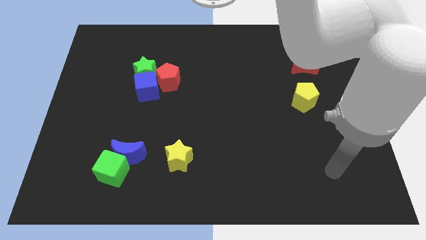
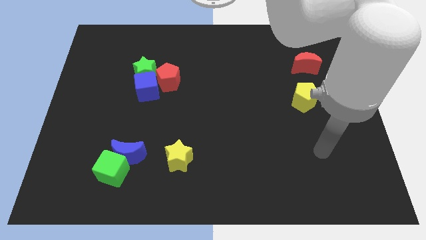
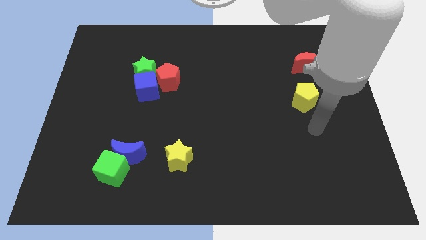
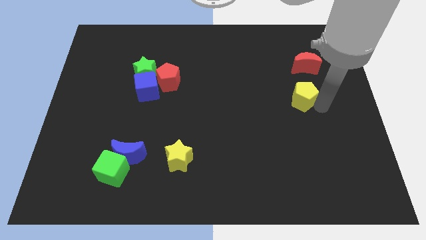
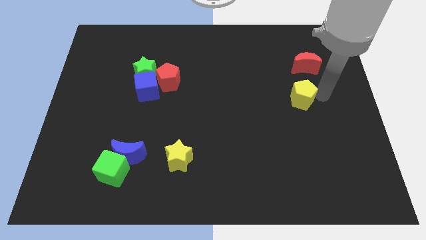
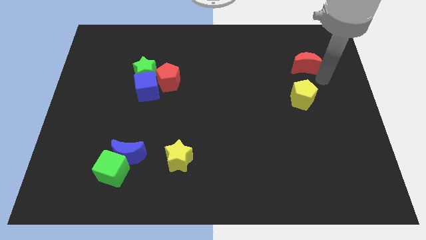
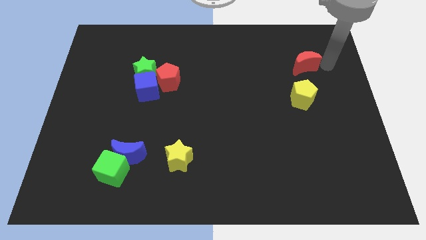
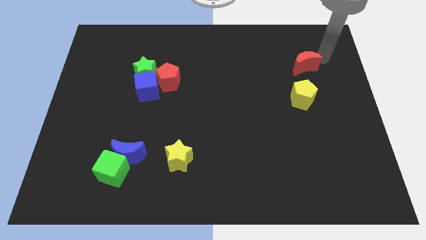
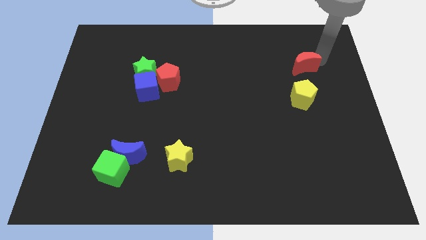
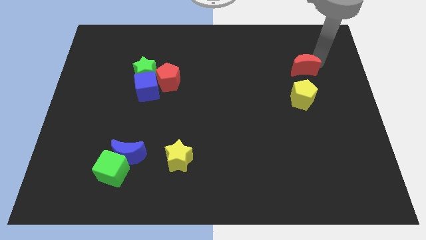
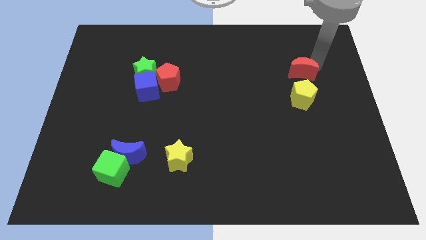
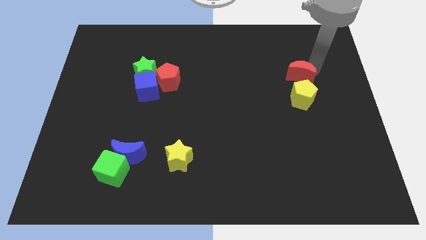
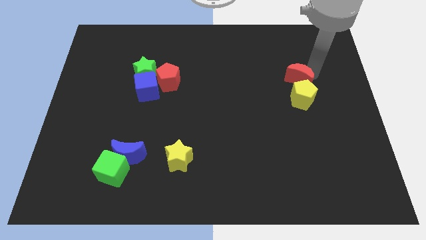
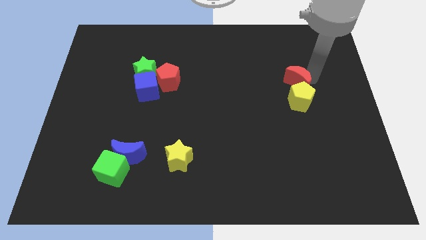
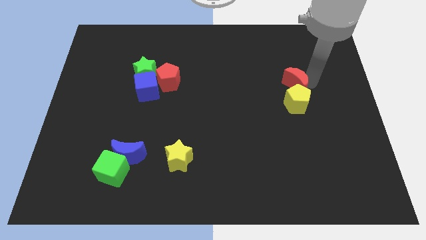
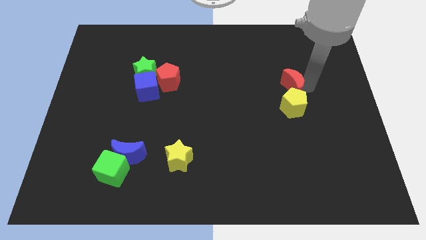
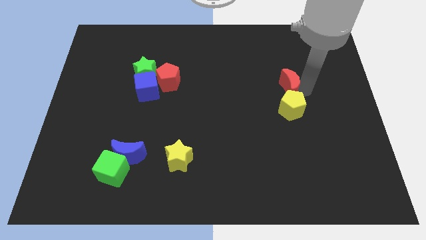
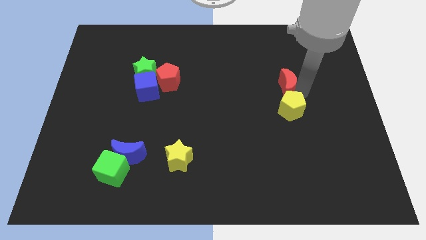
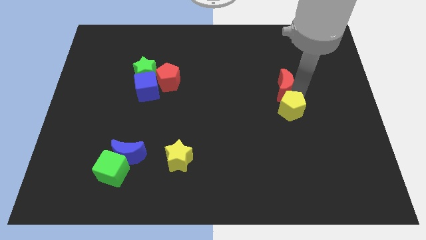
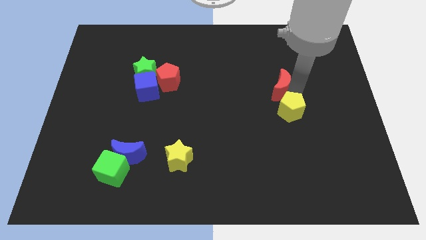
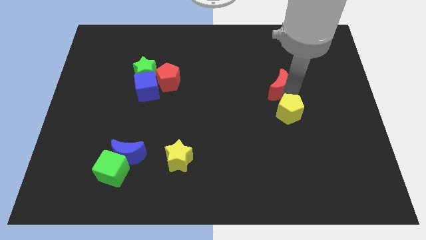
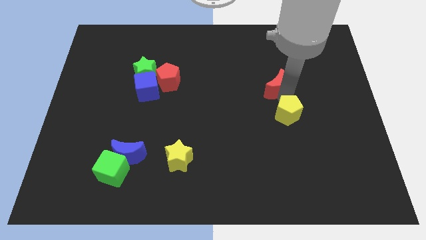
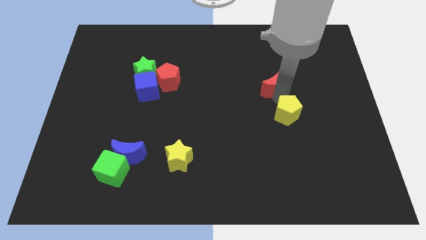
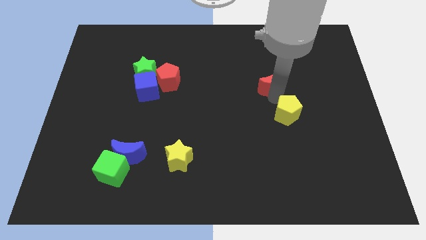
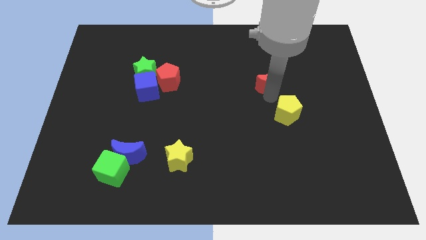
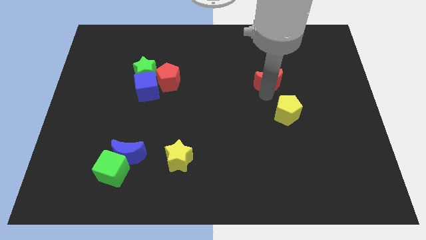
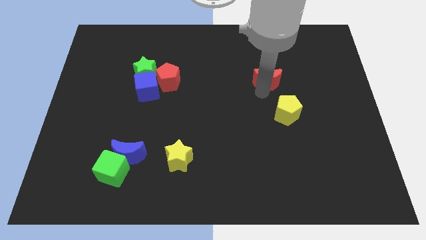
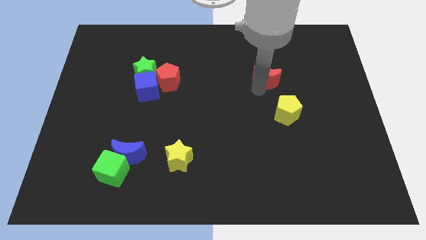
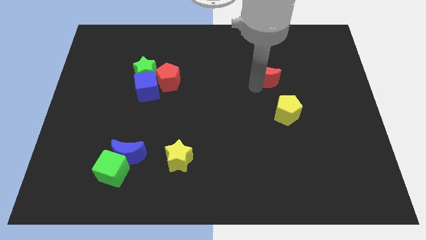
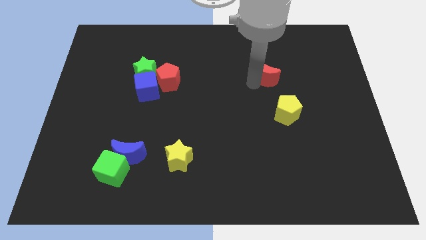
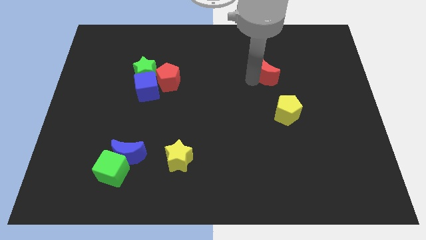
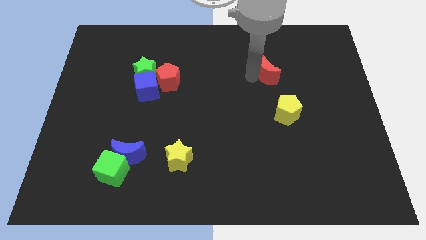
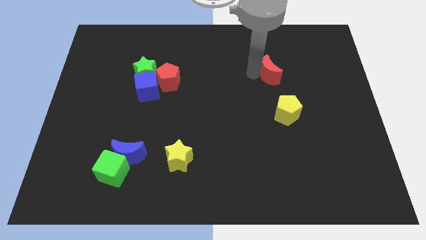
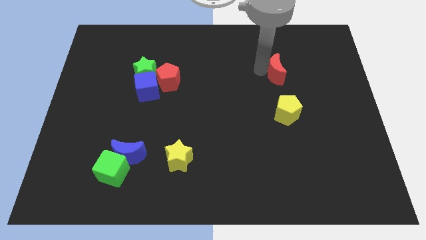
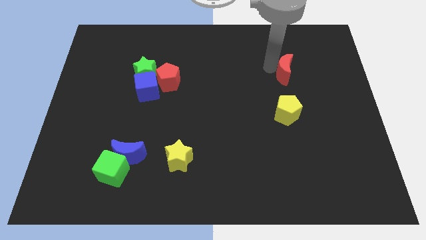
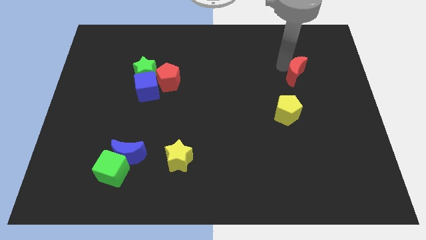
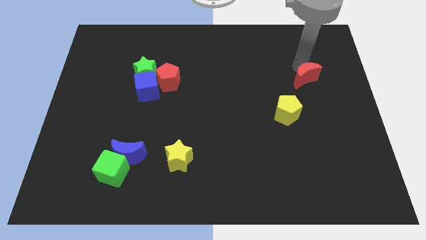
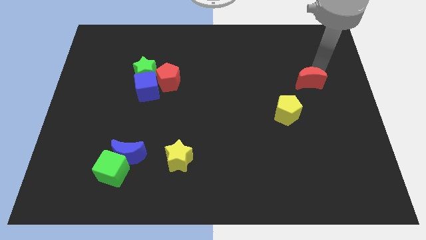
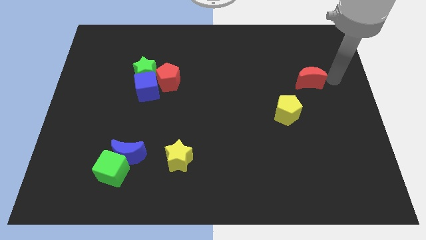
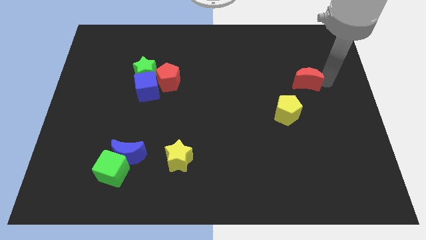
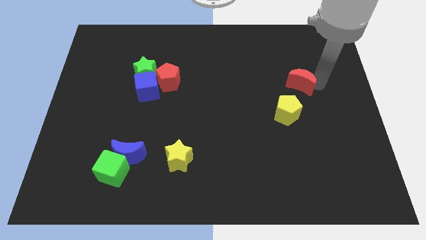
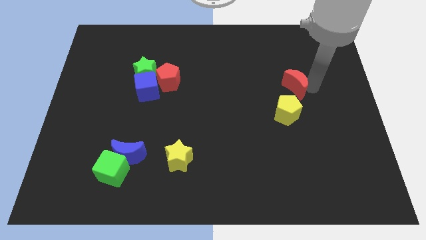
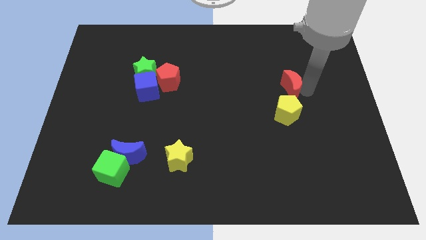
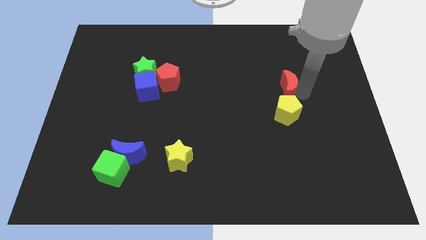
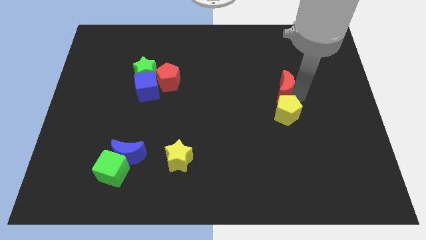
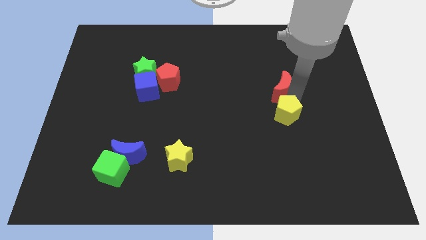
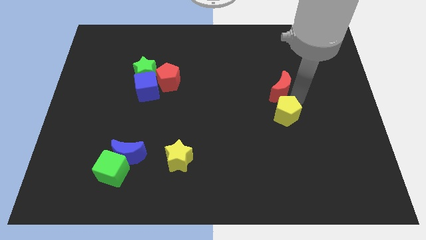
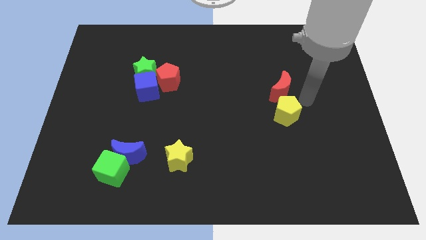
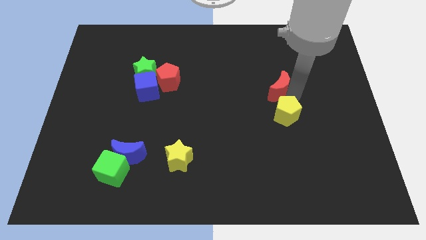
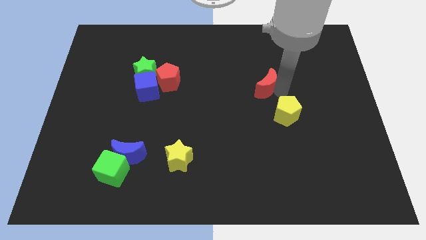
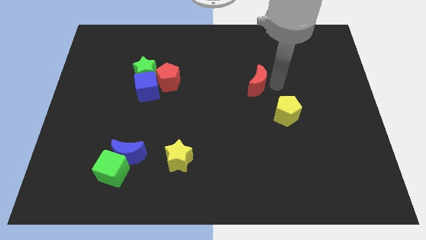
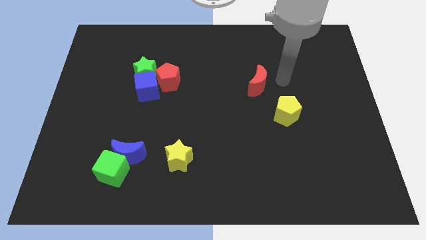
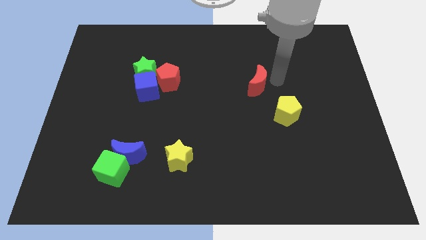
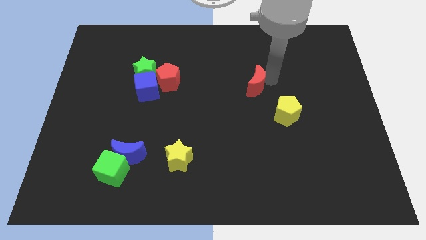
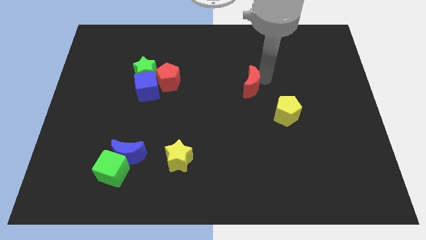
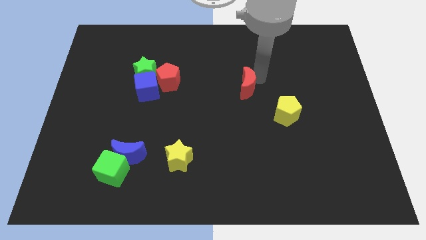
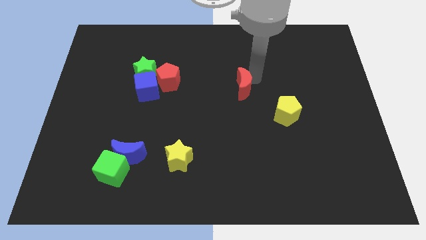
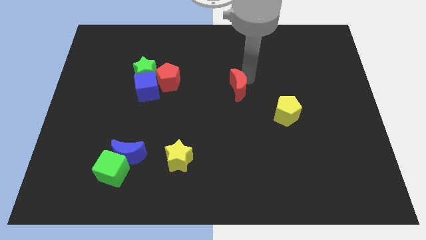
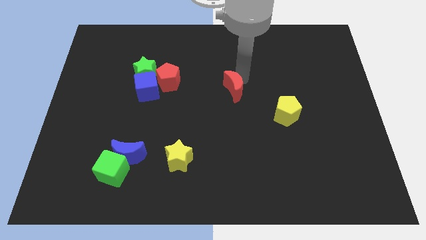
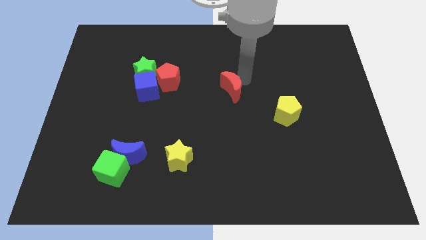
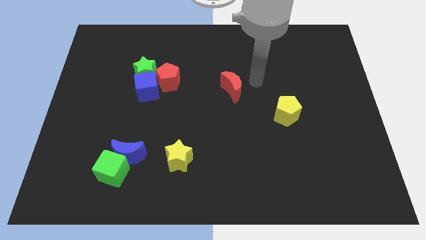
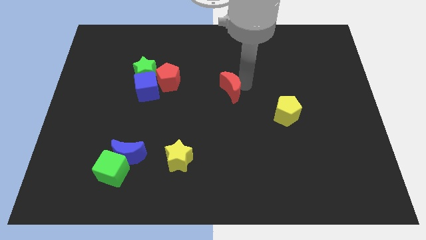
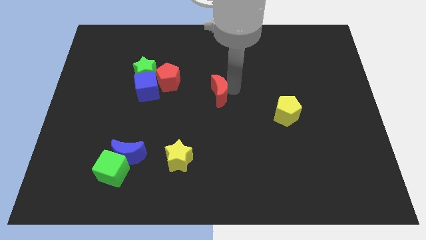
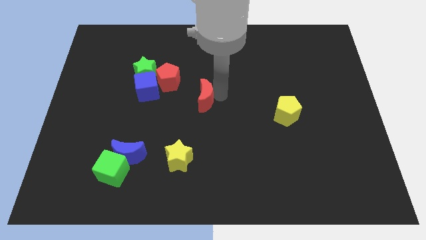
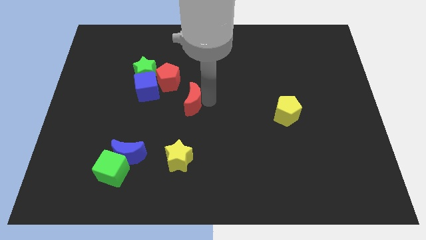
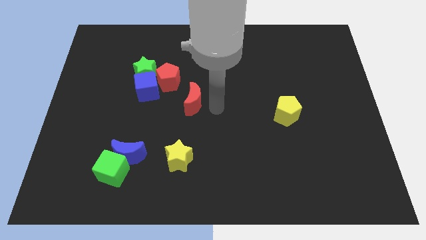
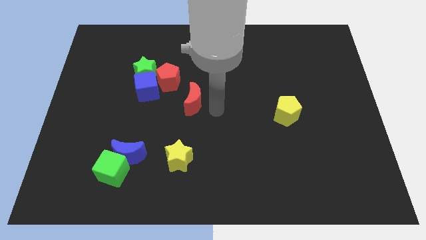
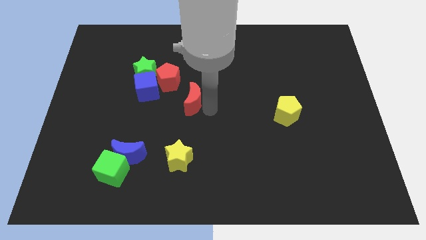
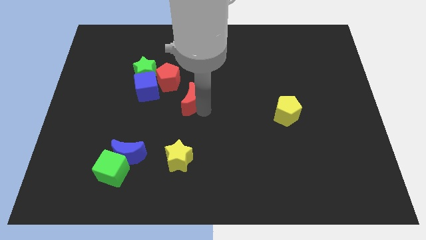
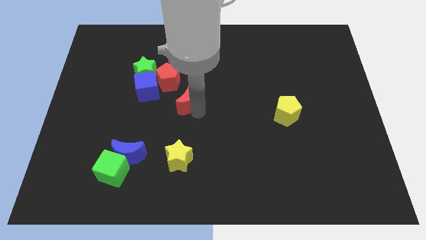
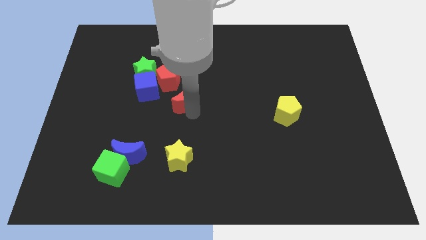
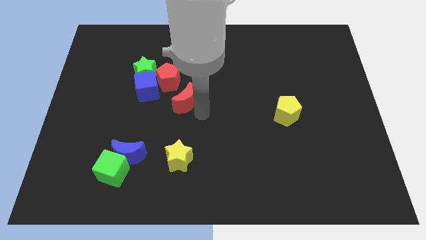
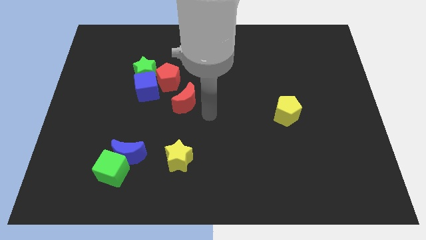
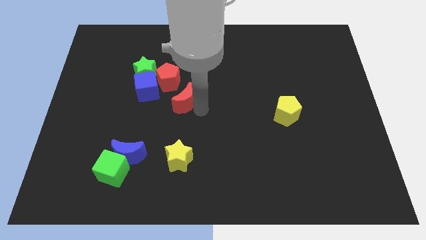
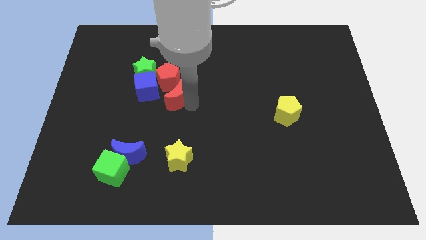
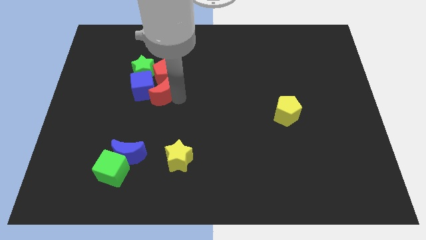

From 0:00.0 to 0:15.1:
push the red moon towards the blue cube
